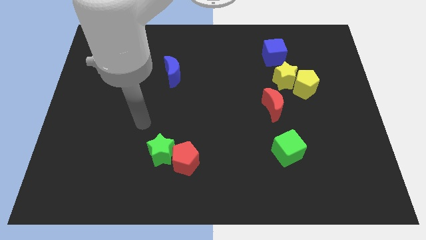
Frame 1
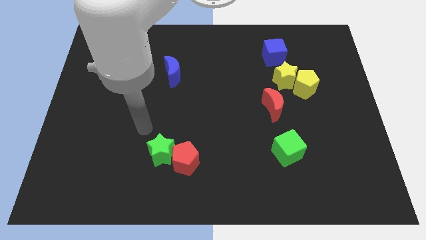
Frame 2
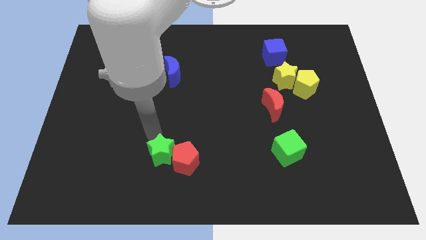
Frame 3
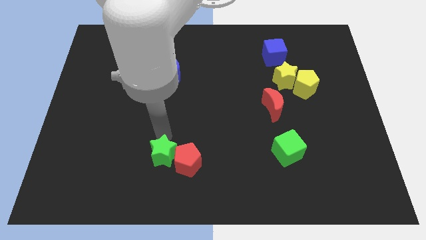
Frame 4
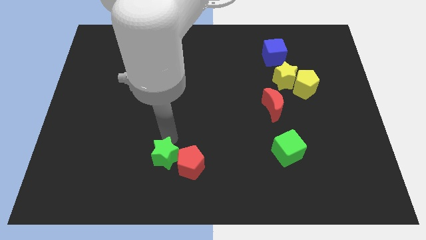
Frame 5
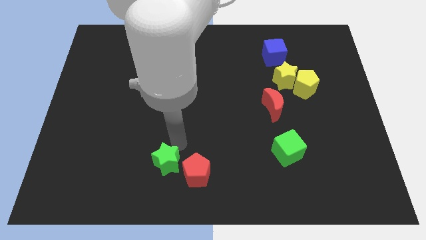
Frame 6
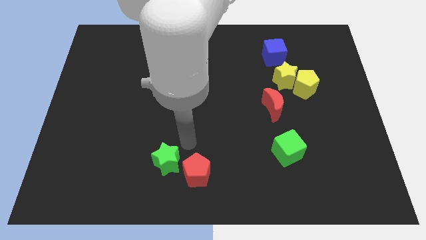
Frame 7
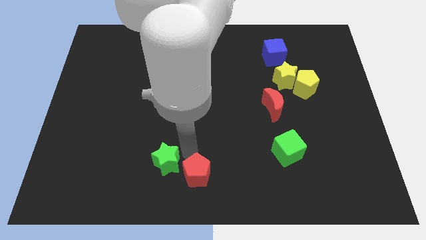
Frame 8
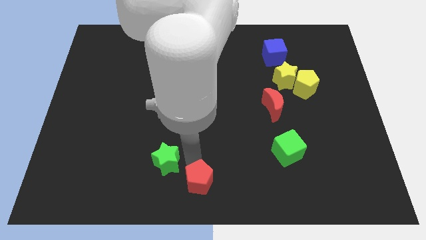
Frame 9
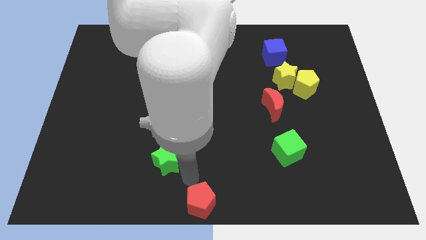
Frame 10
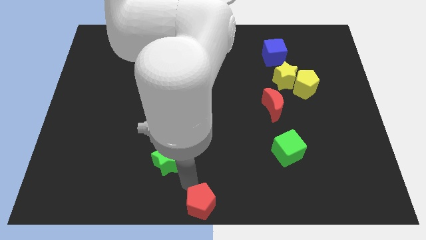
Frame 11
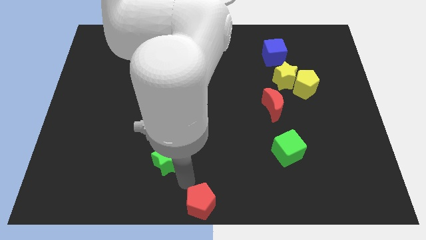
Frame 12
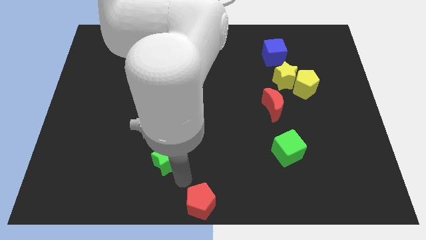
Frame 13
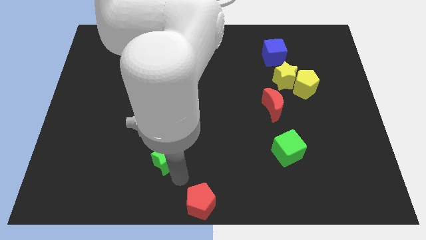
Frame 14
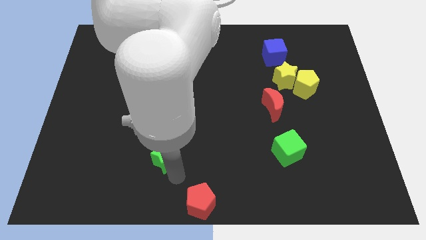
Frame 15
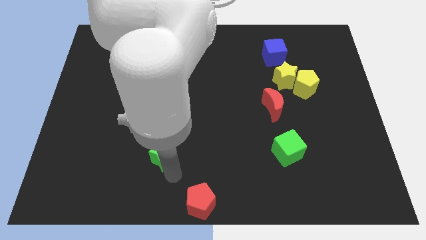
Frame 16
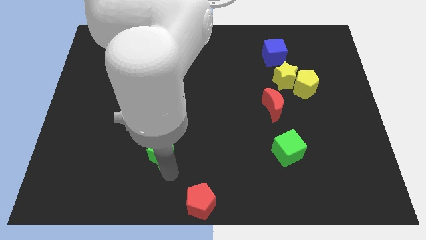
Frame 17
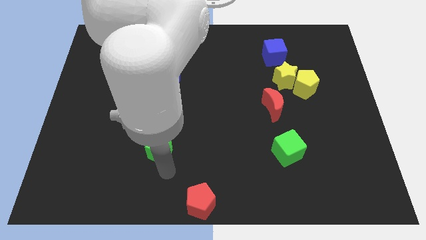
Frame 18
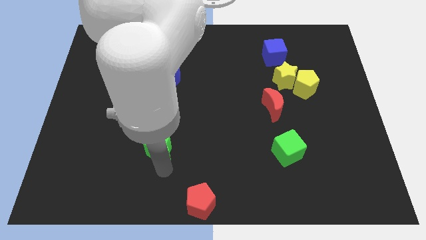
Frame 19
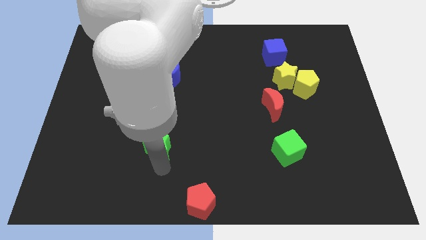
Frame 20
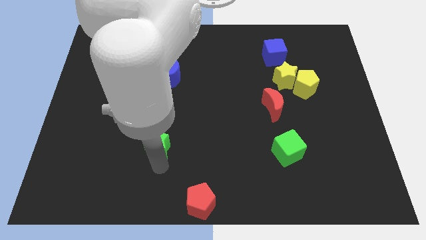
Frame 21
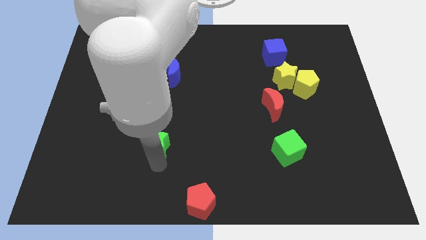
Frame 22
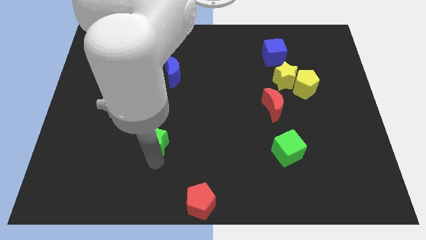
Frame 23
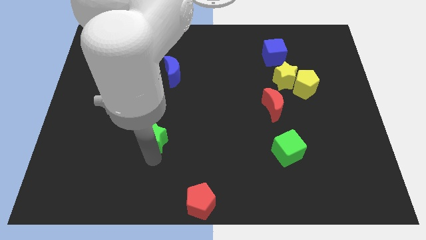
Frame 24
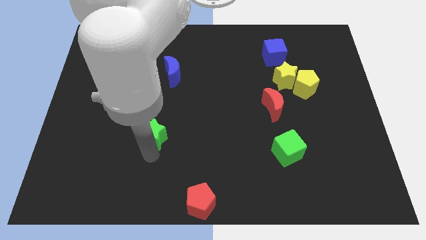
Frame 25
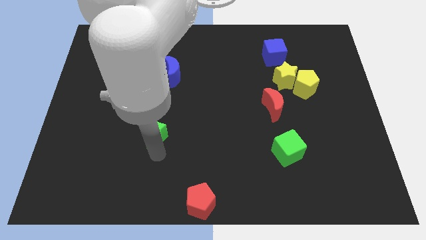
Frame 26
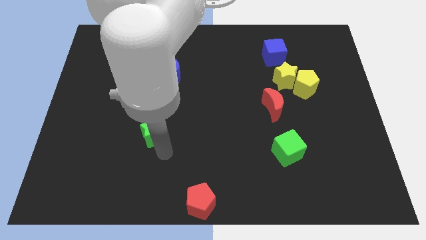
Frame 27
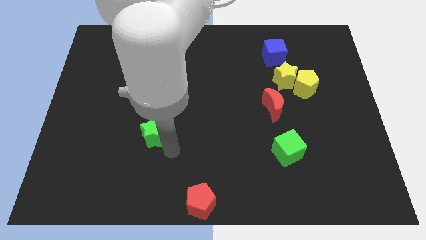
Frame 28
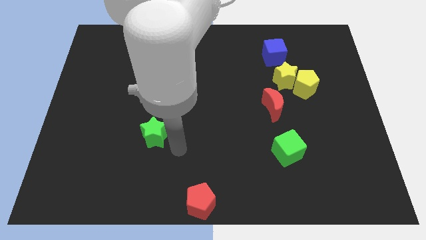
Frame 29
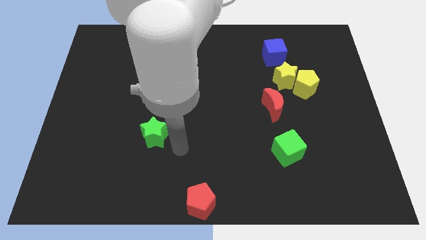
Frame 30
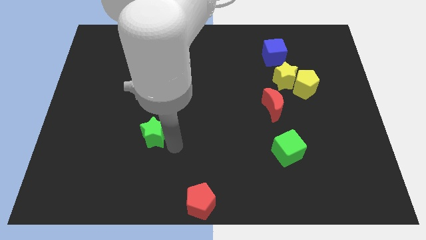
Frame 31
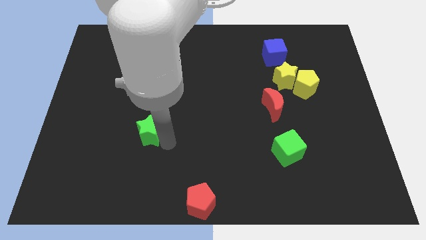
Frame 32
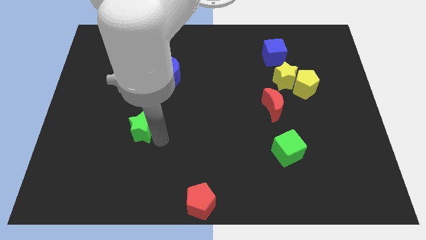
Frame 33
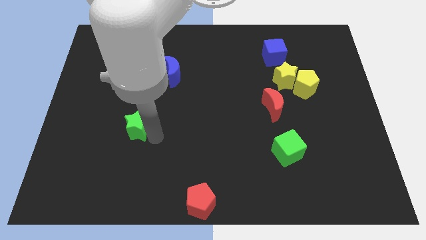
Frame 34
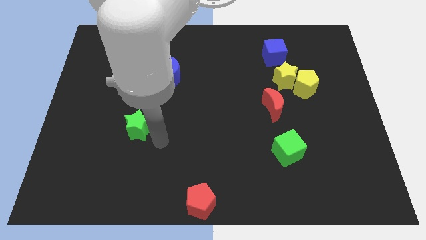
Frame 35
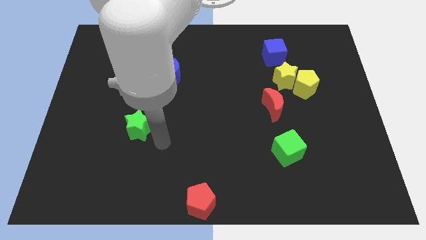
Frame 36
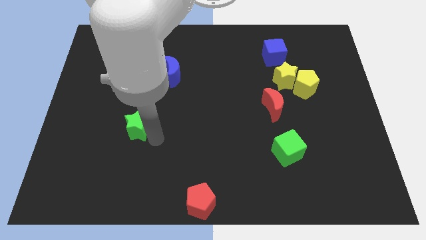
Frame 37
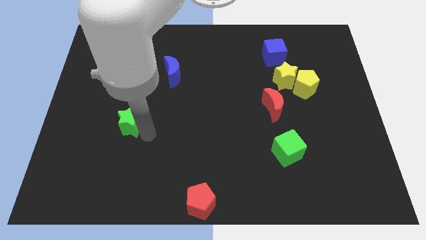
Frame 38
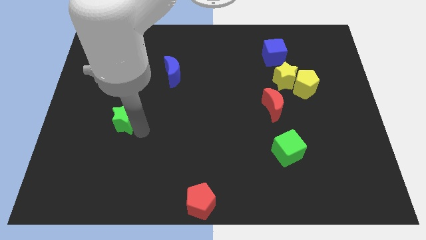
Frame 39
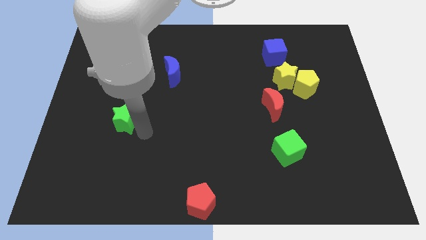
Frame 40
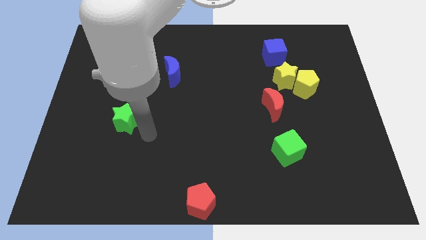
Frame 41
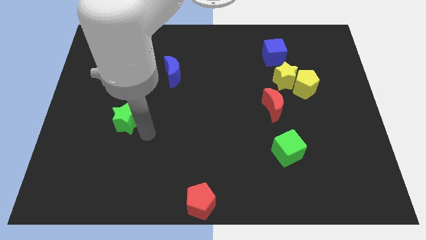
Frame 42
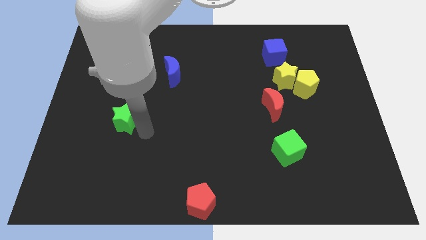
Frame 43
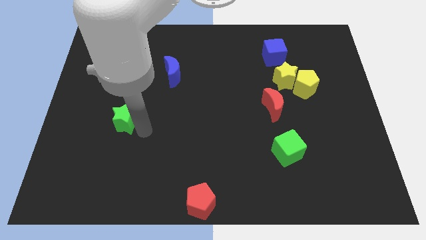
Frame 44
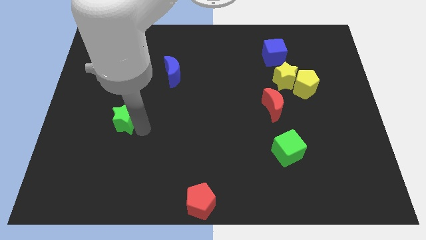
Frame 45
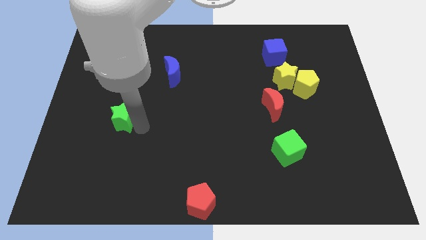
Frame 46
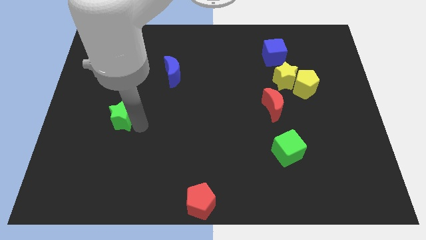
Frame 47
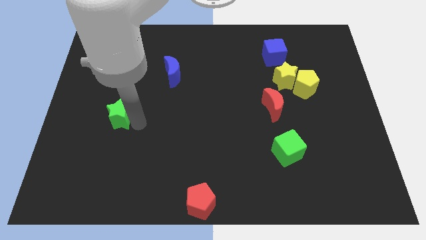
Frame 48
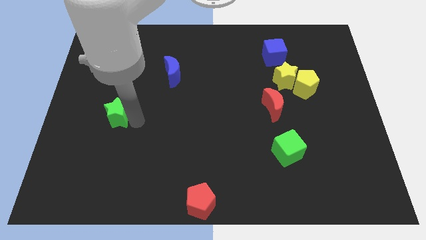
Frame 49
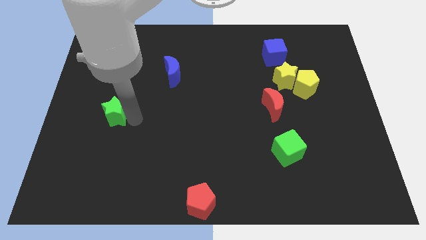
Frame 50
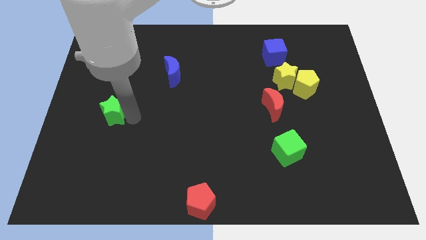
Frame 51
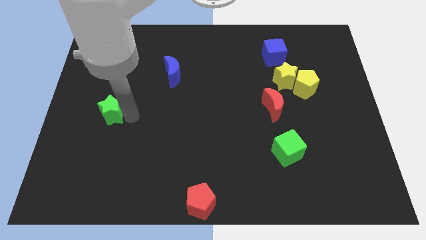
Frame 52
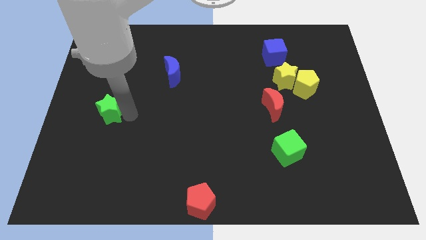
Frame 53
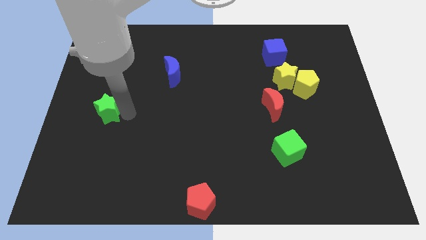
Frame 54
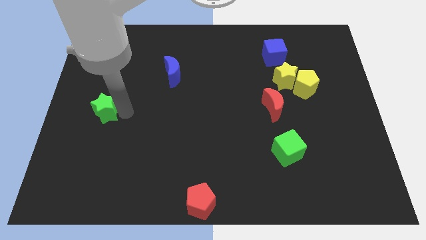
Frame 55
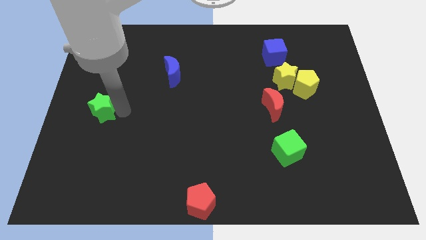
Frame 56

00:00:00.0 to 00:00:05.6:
slide the green star to the left side

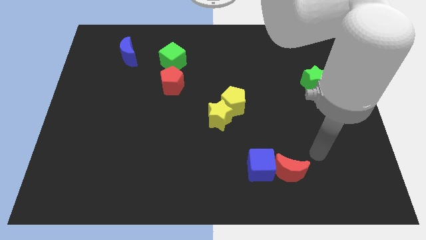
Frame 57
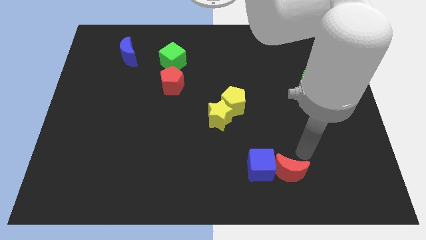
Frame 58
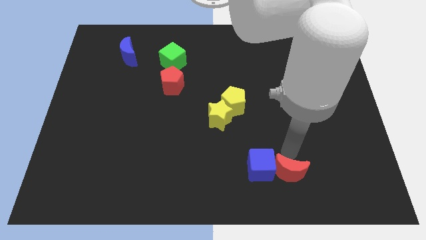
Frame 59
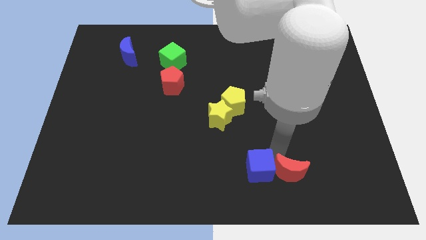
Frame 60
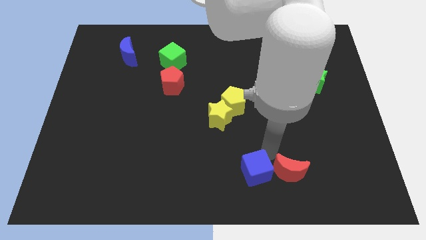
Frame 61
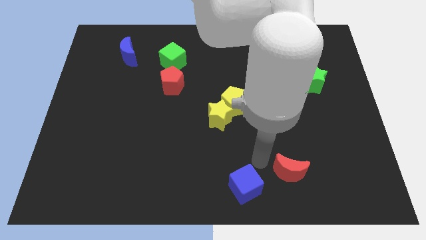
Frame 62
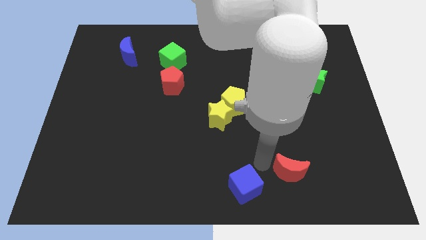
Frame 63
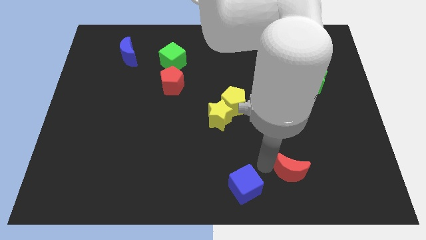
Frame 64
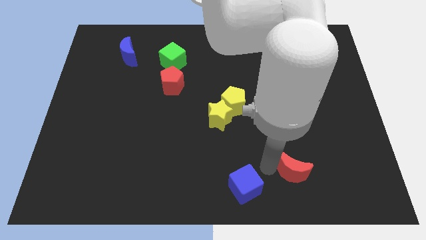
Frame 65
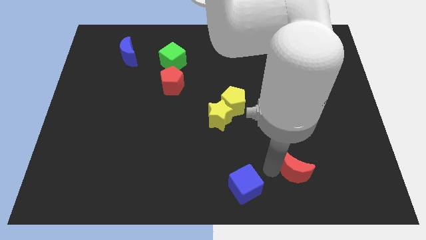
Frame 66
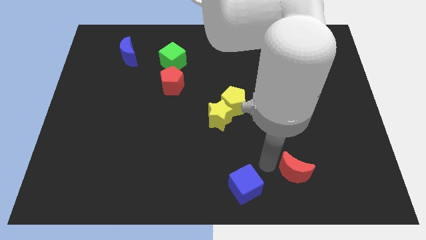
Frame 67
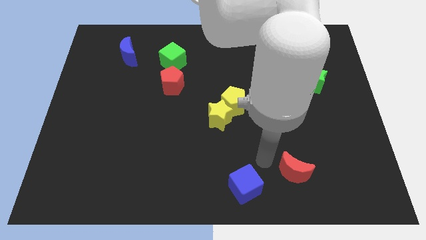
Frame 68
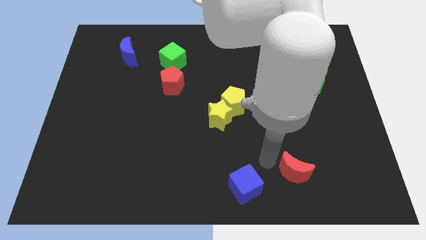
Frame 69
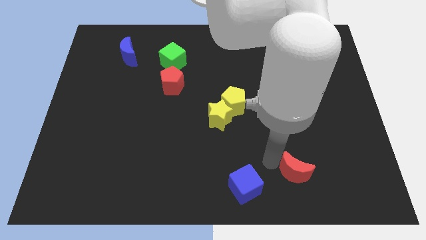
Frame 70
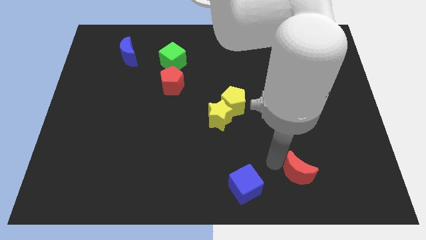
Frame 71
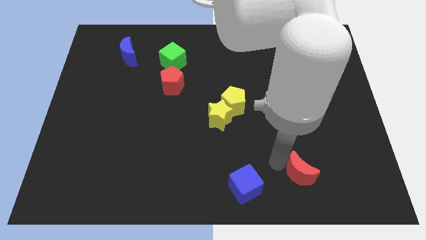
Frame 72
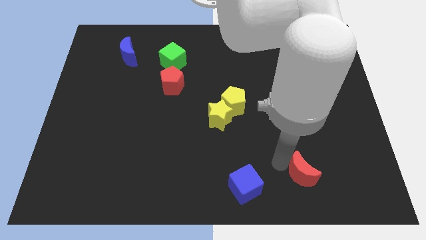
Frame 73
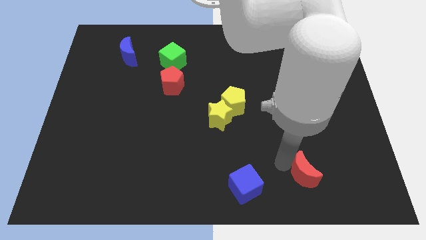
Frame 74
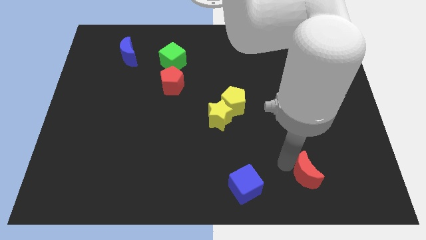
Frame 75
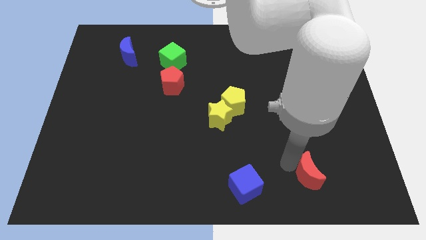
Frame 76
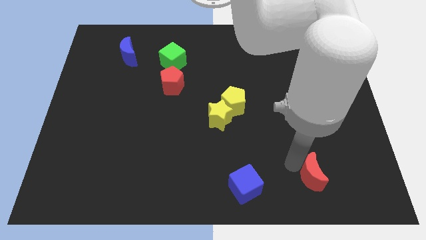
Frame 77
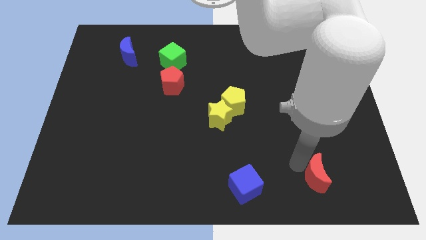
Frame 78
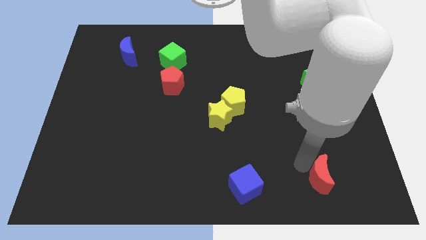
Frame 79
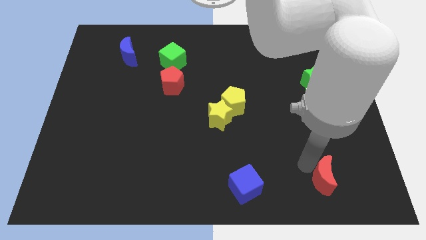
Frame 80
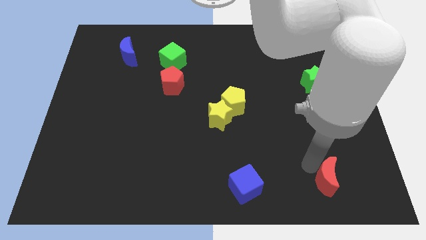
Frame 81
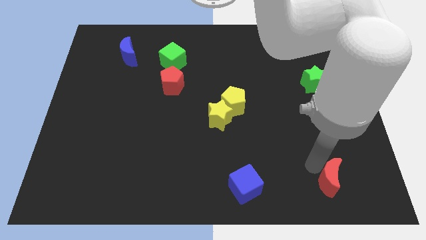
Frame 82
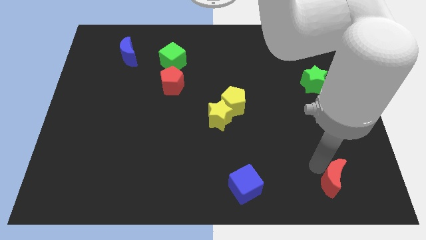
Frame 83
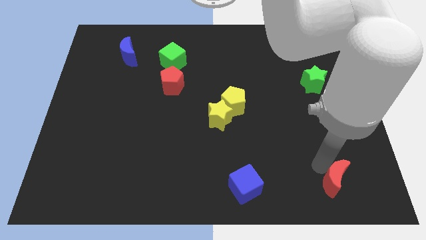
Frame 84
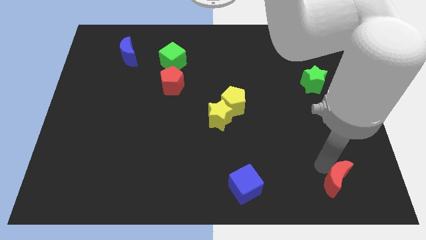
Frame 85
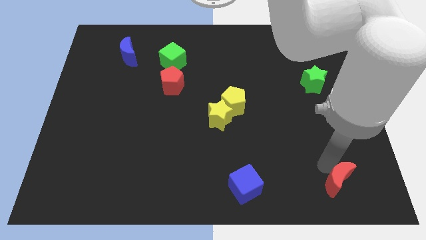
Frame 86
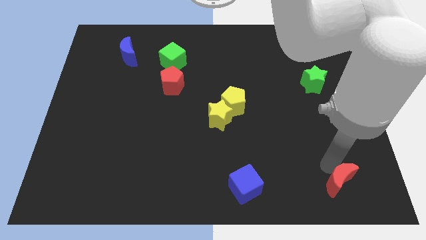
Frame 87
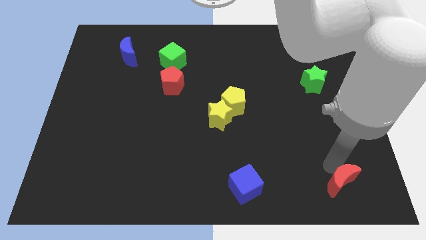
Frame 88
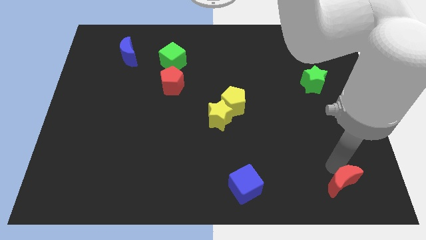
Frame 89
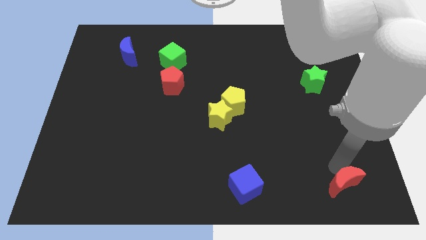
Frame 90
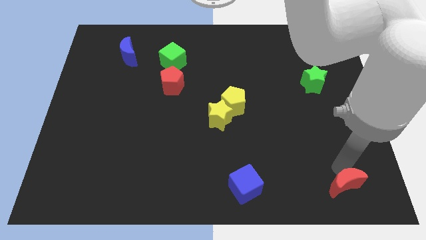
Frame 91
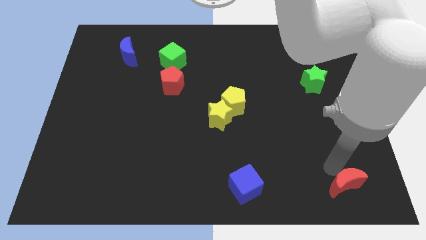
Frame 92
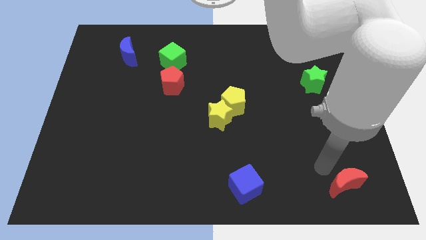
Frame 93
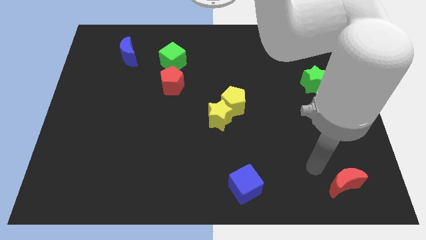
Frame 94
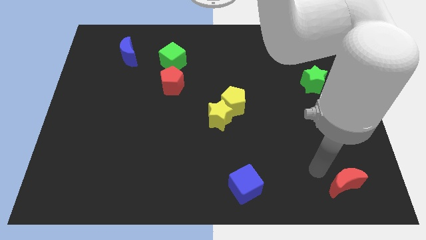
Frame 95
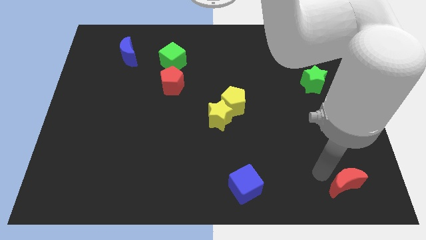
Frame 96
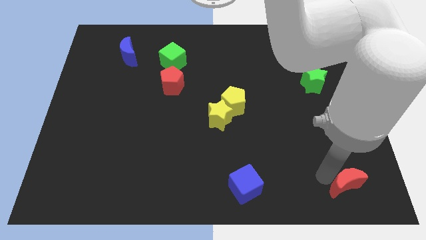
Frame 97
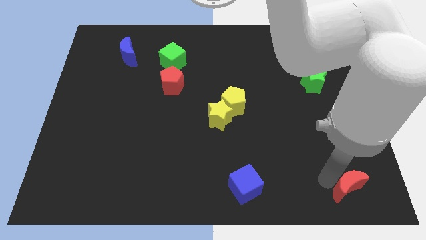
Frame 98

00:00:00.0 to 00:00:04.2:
move the red moon to the bottom right of the board
